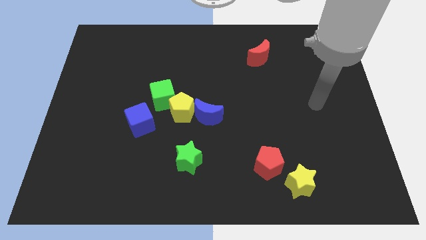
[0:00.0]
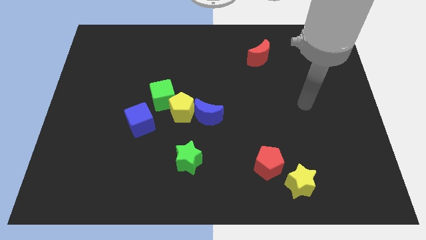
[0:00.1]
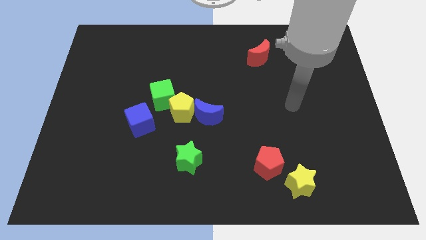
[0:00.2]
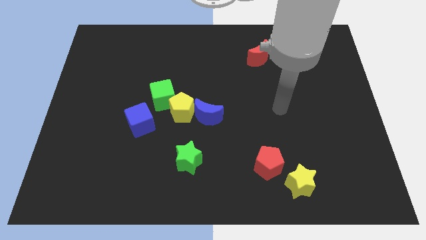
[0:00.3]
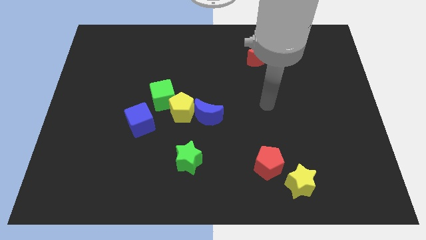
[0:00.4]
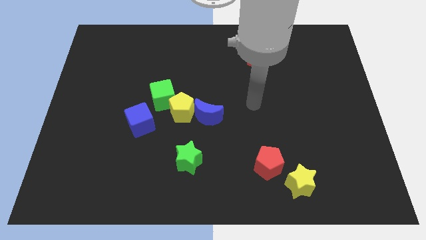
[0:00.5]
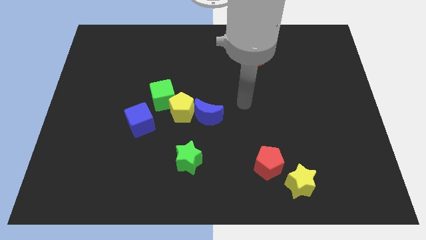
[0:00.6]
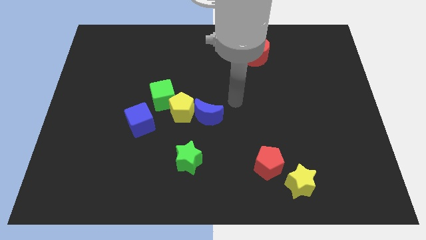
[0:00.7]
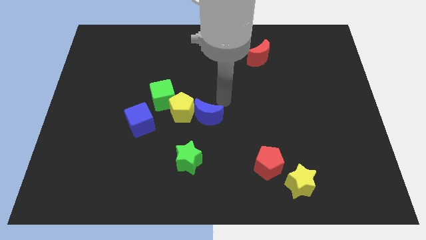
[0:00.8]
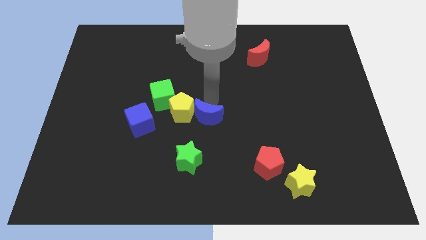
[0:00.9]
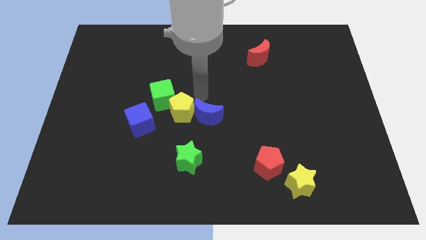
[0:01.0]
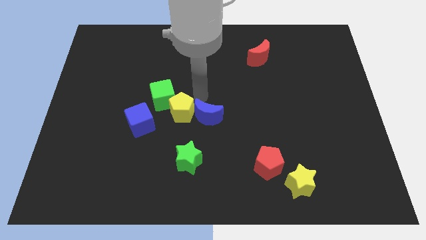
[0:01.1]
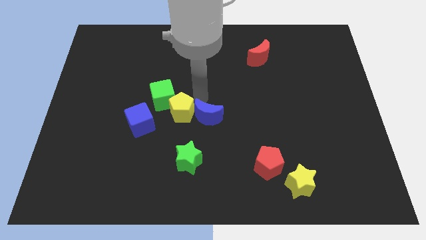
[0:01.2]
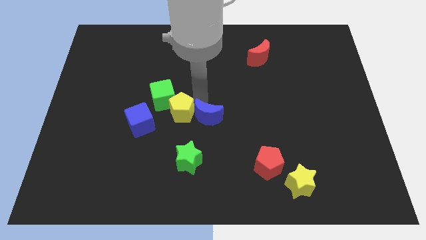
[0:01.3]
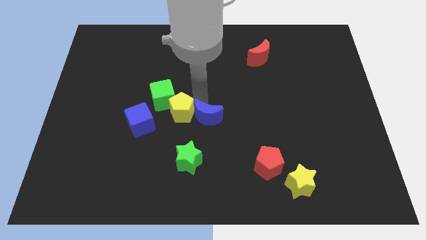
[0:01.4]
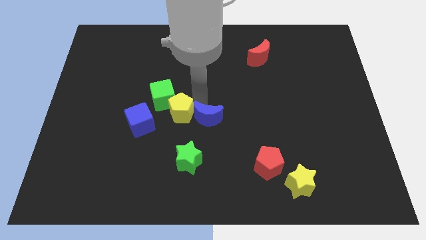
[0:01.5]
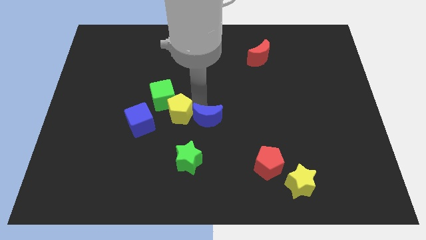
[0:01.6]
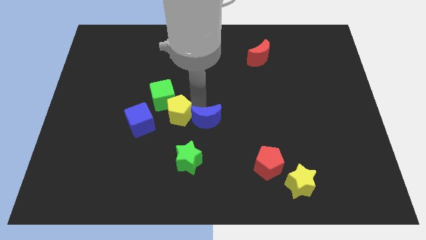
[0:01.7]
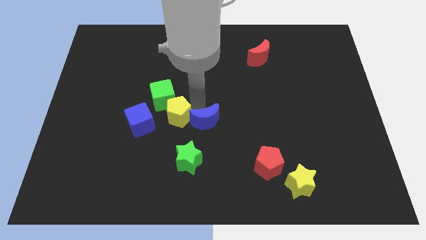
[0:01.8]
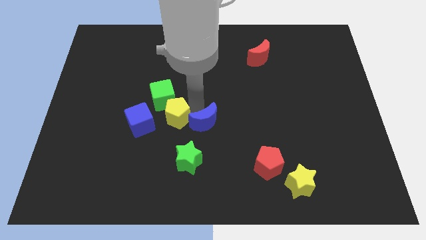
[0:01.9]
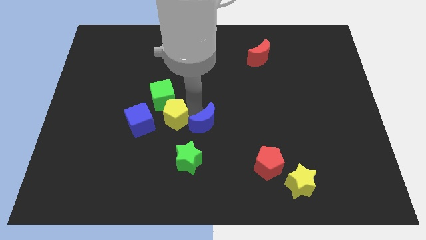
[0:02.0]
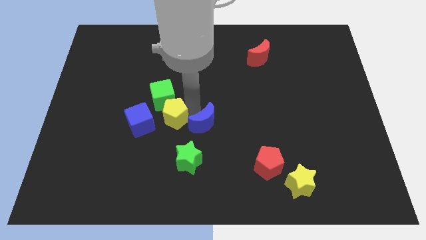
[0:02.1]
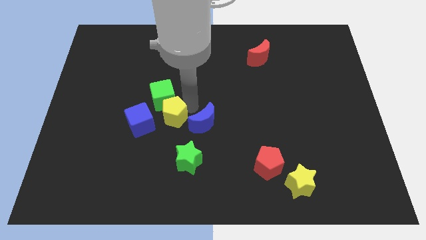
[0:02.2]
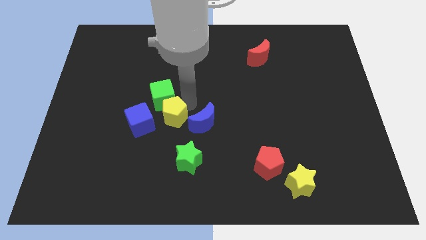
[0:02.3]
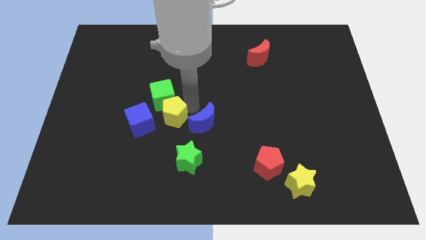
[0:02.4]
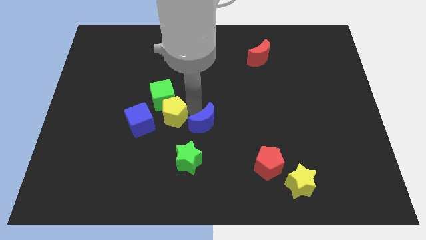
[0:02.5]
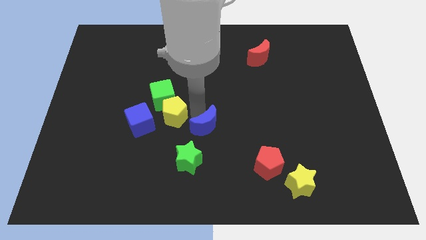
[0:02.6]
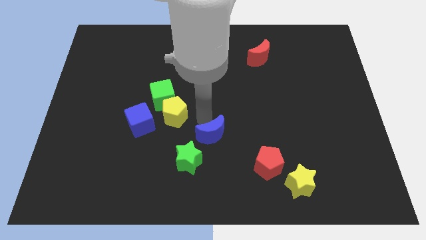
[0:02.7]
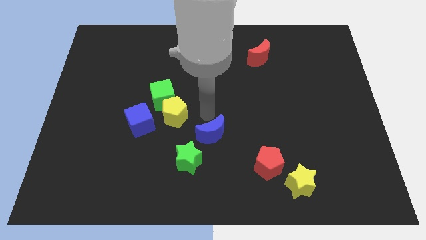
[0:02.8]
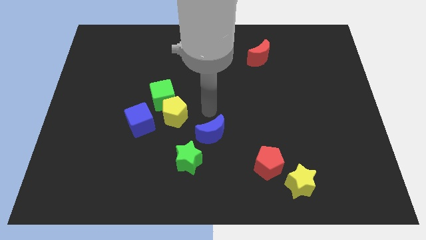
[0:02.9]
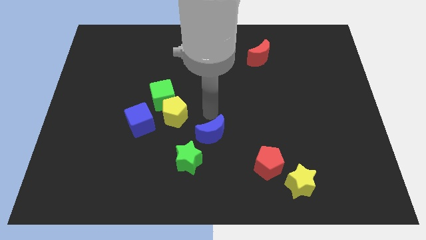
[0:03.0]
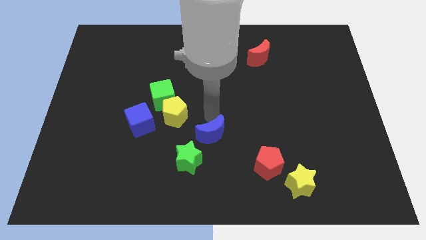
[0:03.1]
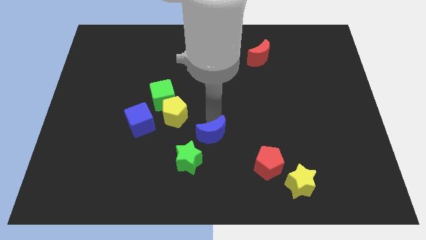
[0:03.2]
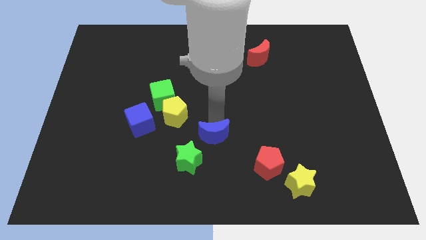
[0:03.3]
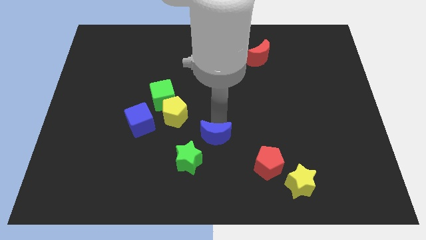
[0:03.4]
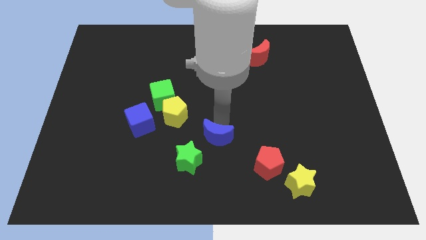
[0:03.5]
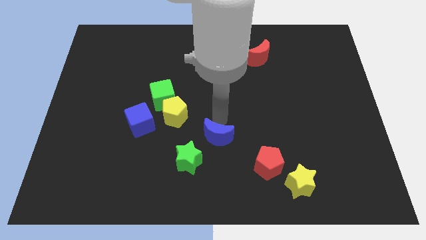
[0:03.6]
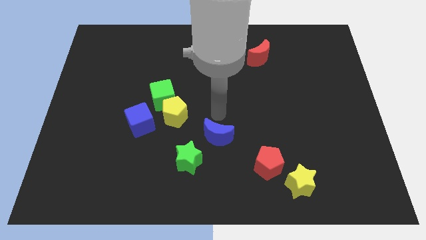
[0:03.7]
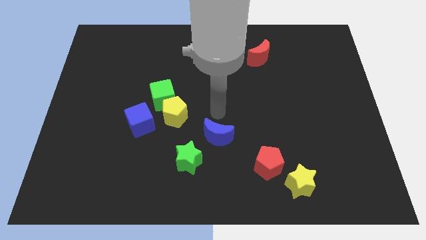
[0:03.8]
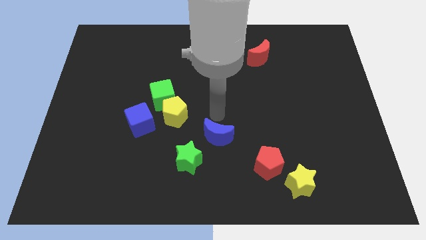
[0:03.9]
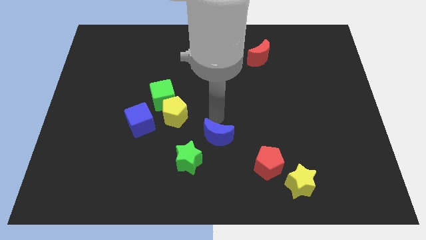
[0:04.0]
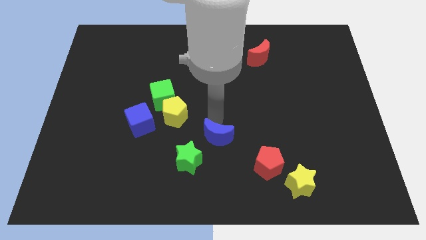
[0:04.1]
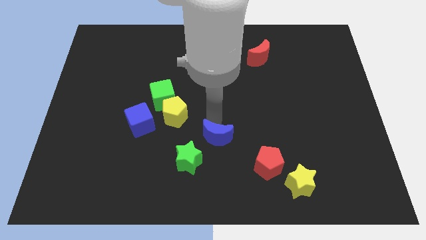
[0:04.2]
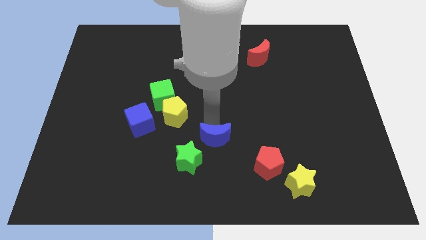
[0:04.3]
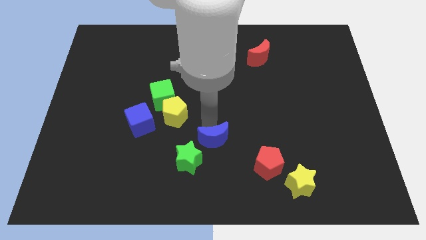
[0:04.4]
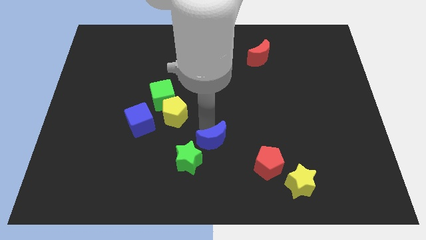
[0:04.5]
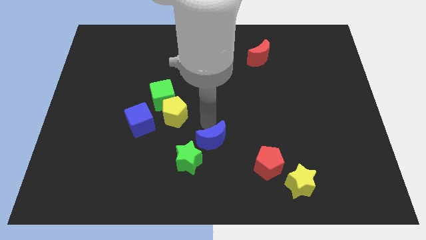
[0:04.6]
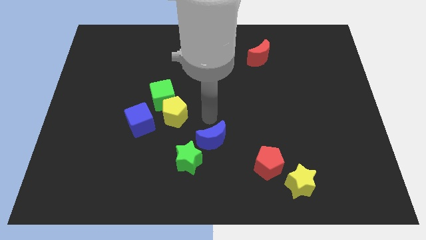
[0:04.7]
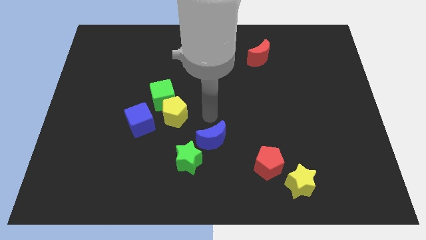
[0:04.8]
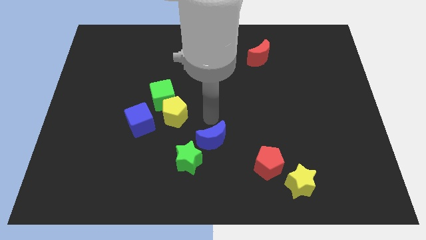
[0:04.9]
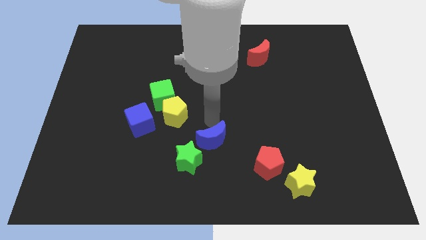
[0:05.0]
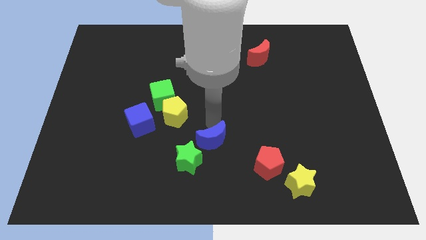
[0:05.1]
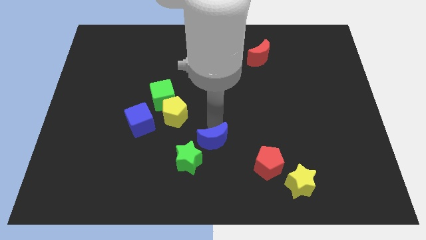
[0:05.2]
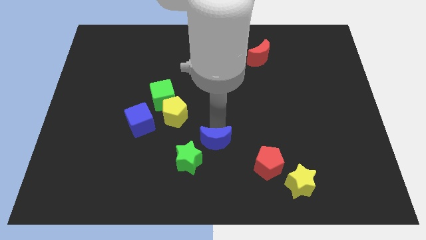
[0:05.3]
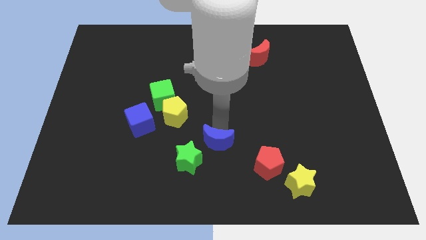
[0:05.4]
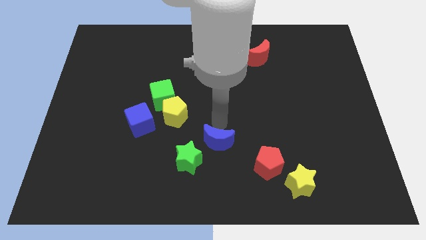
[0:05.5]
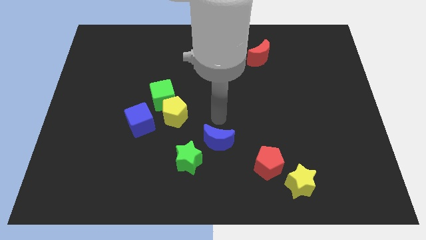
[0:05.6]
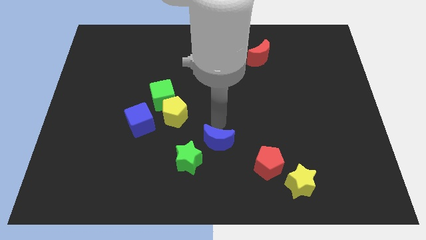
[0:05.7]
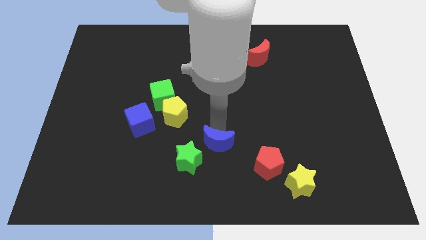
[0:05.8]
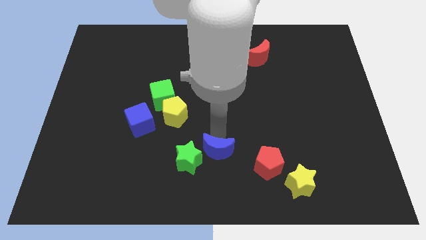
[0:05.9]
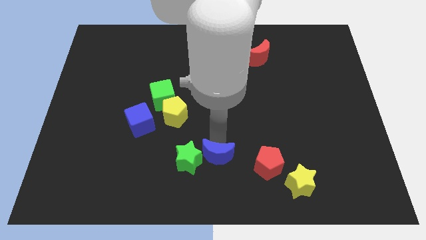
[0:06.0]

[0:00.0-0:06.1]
push the blue moon to the bottom

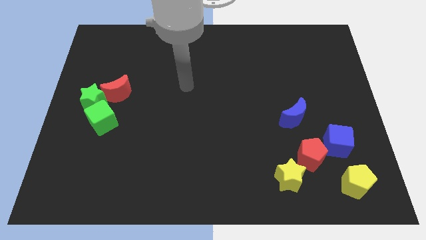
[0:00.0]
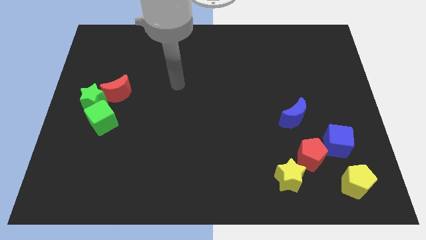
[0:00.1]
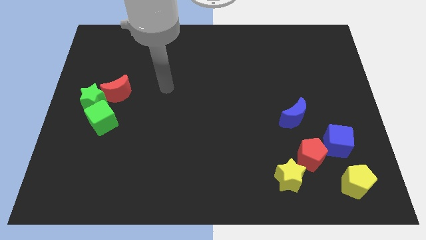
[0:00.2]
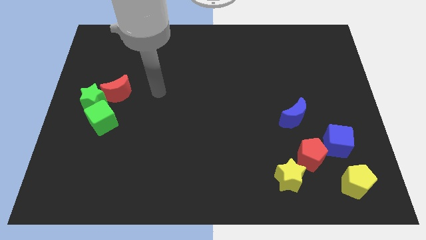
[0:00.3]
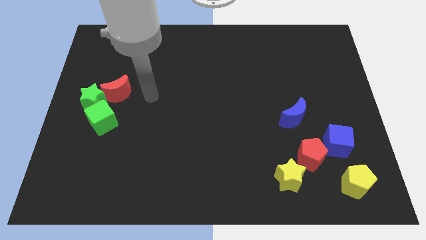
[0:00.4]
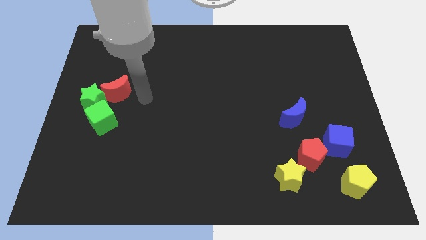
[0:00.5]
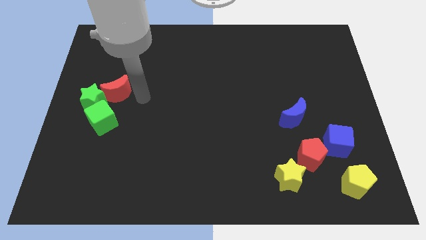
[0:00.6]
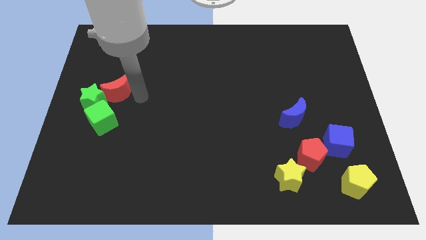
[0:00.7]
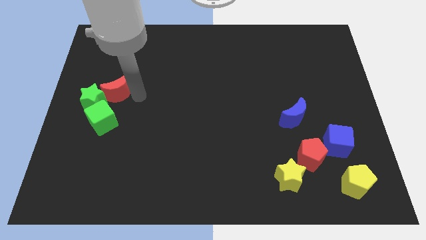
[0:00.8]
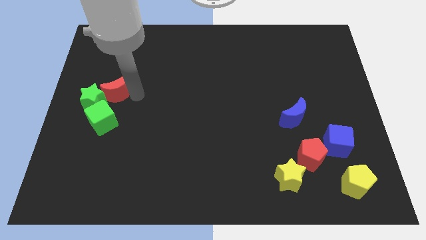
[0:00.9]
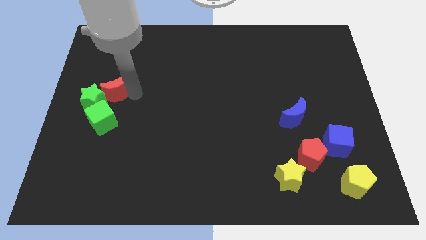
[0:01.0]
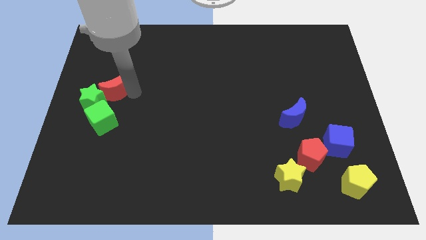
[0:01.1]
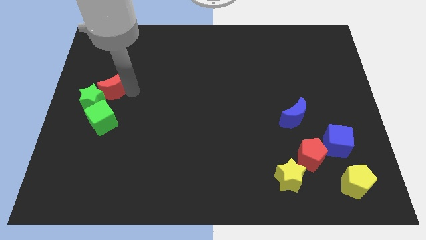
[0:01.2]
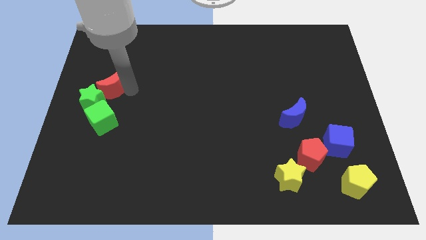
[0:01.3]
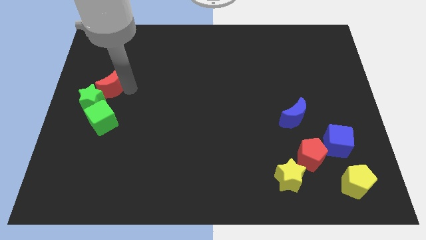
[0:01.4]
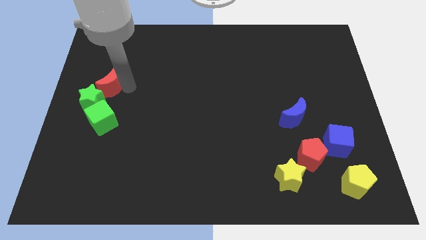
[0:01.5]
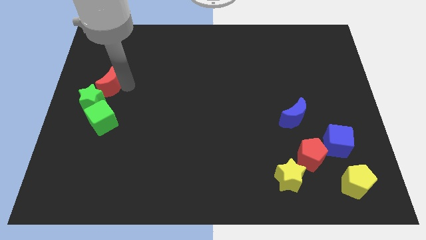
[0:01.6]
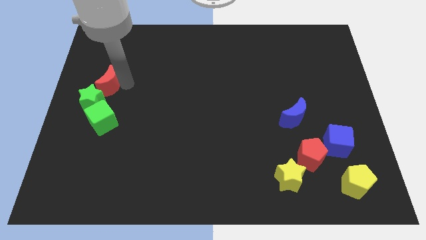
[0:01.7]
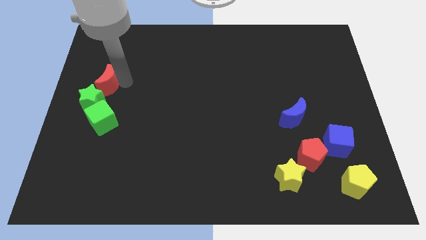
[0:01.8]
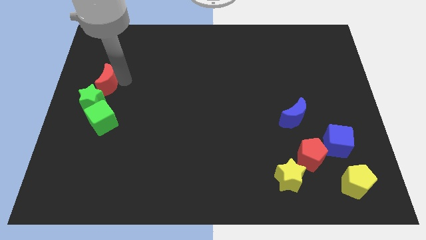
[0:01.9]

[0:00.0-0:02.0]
slide the red moon to the center left

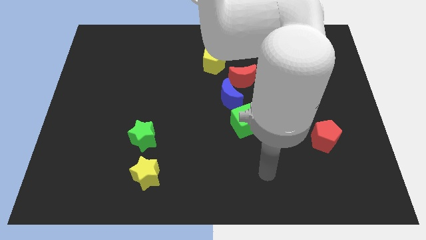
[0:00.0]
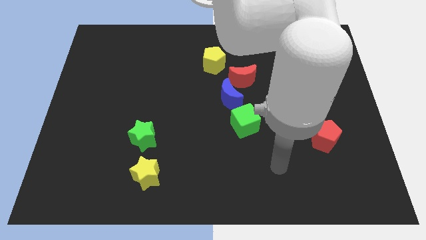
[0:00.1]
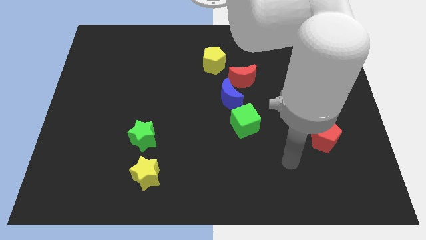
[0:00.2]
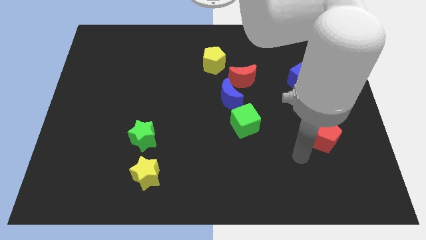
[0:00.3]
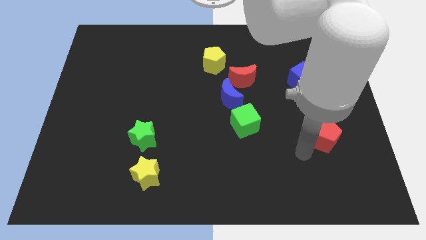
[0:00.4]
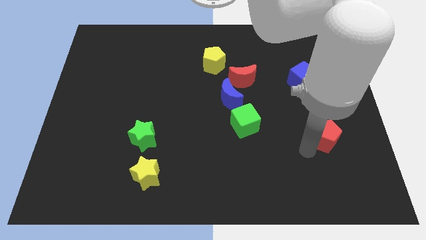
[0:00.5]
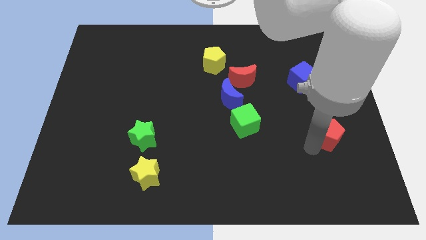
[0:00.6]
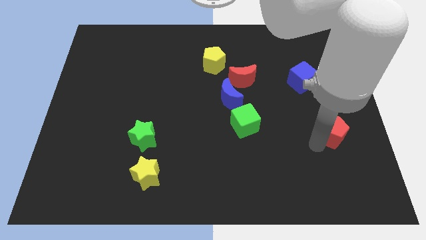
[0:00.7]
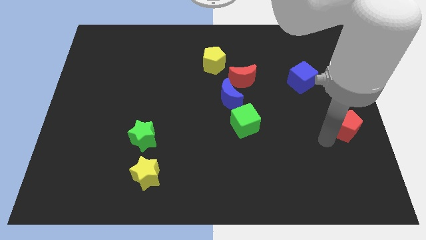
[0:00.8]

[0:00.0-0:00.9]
slide the red pentagon to the center right
